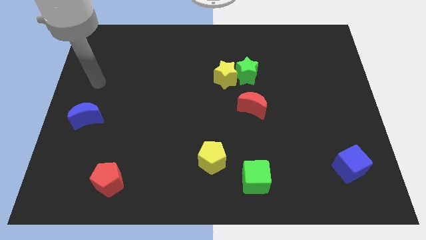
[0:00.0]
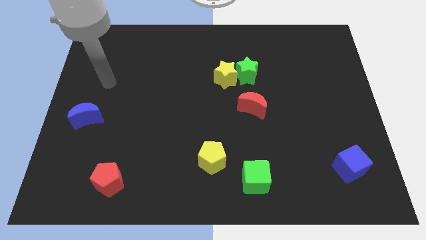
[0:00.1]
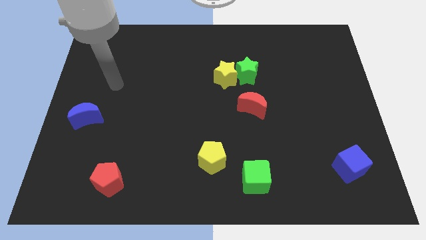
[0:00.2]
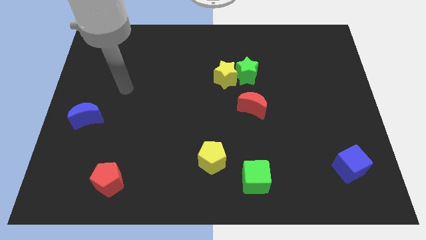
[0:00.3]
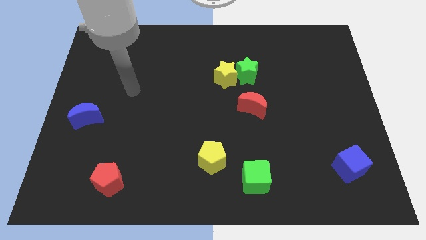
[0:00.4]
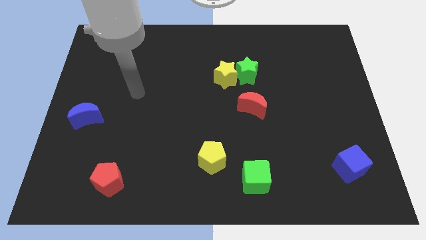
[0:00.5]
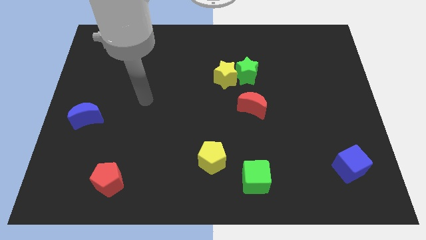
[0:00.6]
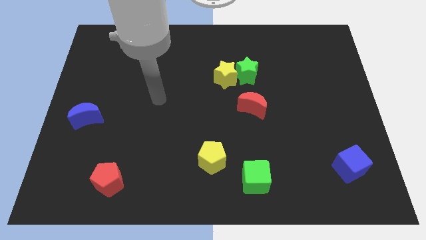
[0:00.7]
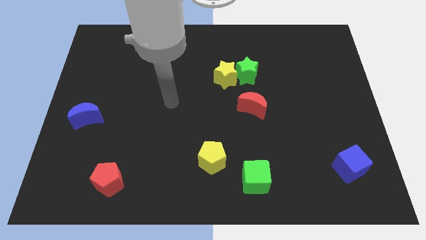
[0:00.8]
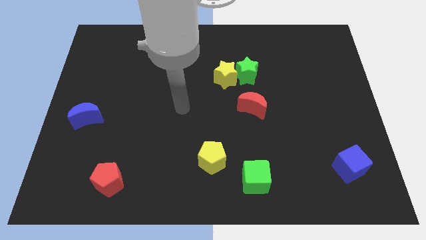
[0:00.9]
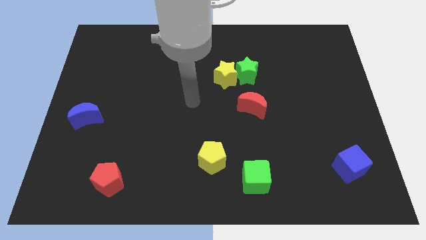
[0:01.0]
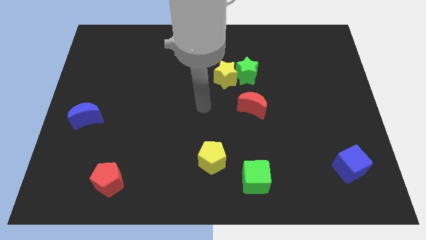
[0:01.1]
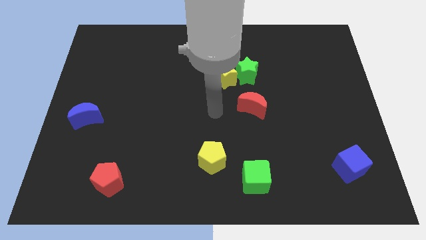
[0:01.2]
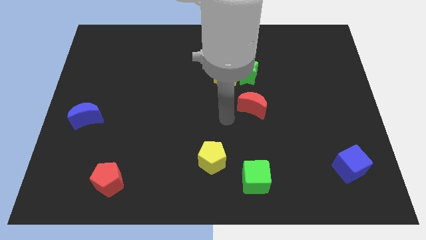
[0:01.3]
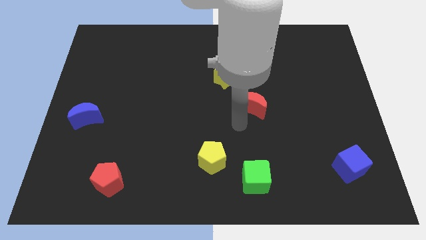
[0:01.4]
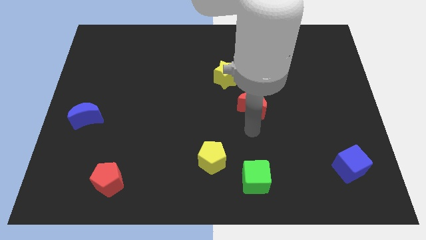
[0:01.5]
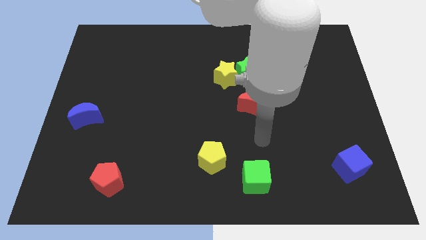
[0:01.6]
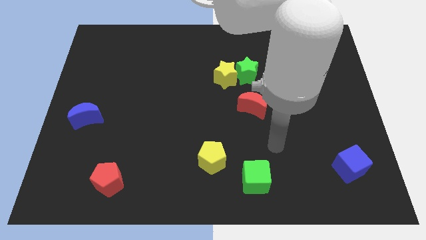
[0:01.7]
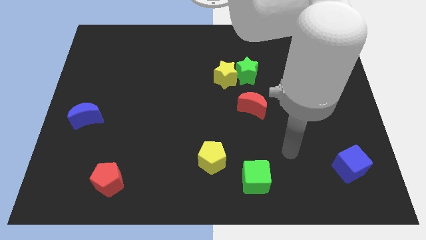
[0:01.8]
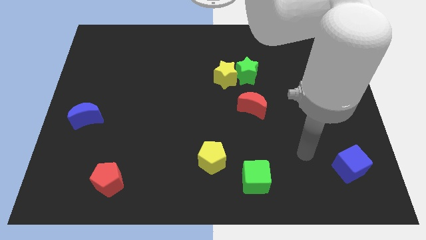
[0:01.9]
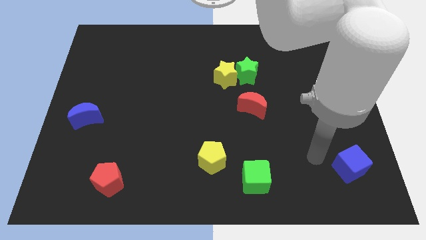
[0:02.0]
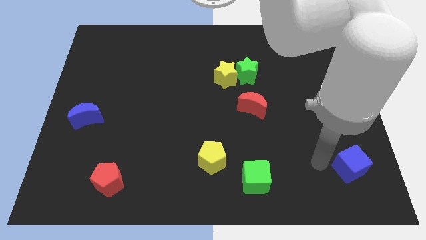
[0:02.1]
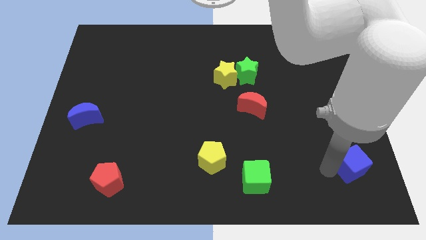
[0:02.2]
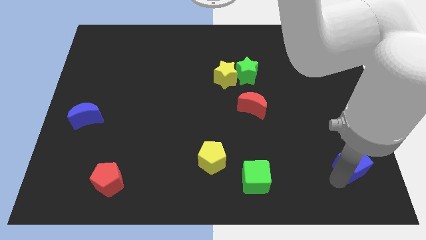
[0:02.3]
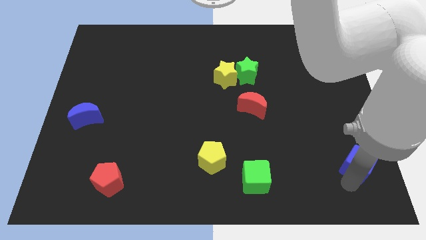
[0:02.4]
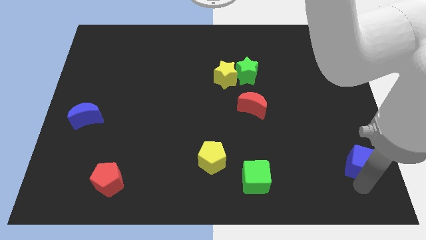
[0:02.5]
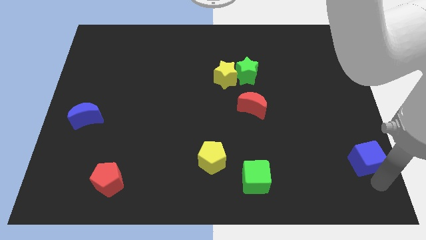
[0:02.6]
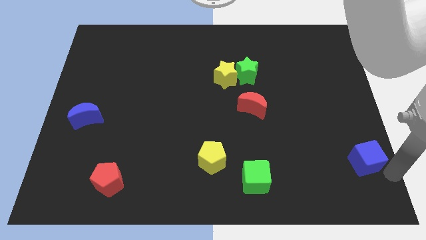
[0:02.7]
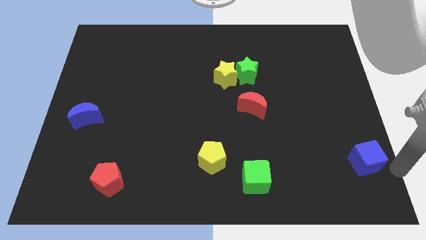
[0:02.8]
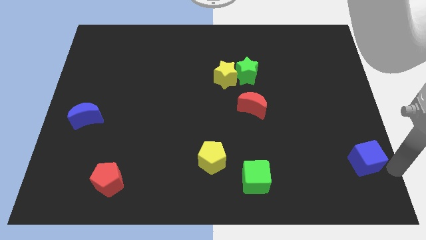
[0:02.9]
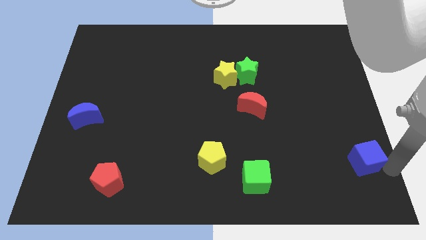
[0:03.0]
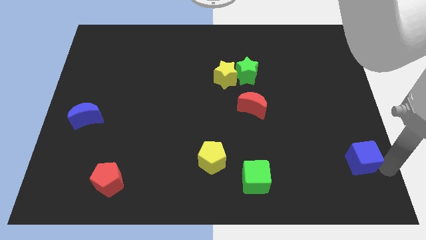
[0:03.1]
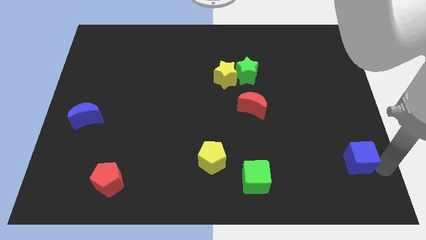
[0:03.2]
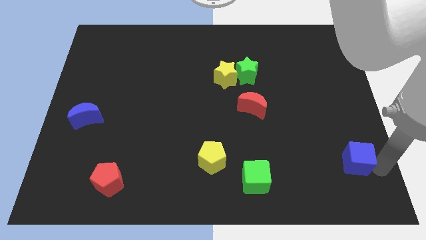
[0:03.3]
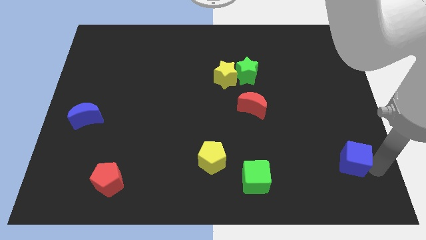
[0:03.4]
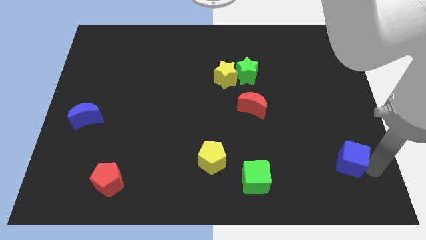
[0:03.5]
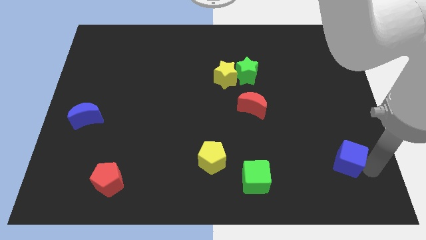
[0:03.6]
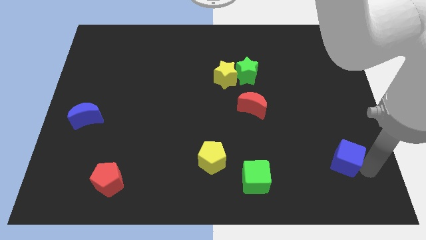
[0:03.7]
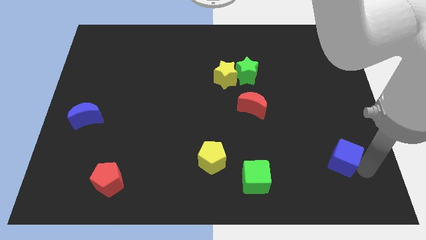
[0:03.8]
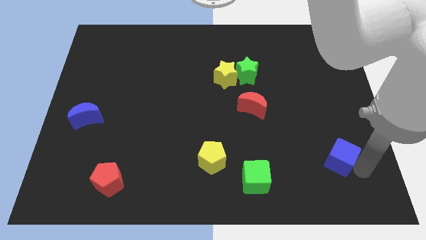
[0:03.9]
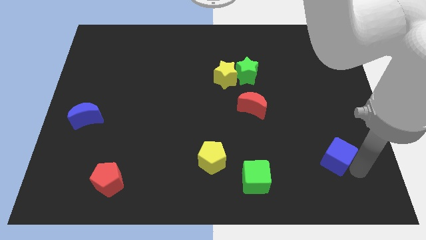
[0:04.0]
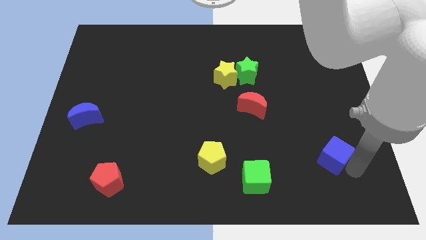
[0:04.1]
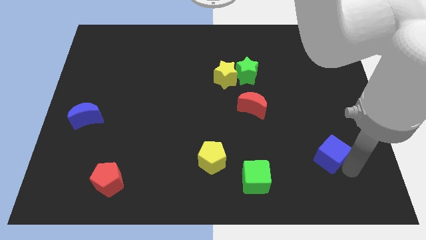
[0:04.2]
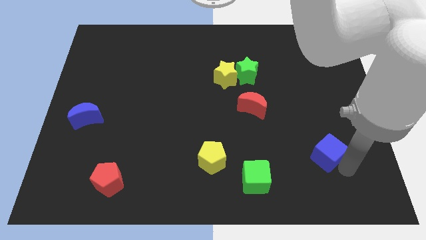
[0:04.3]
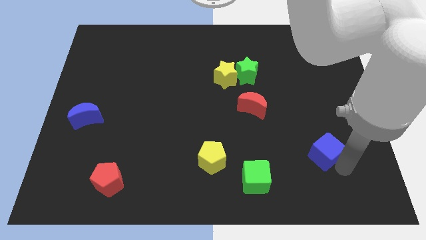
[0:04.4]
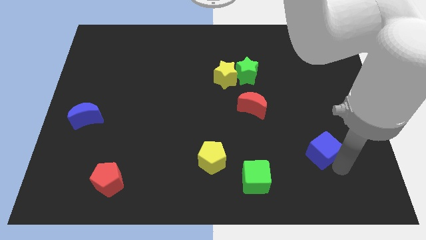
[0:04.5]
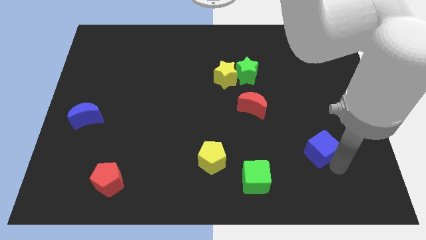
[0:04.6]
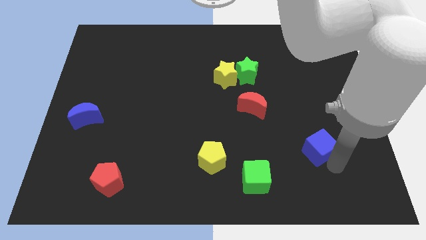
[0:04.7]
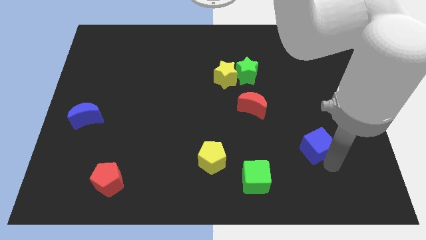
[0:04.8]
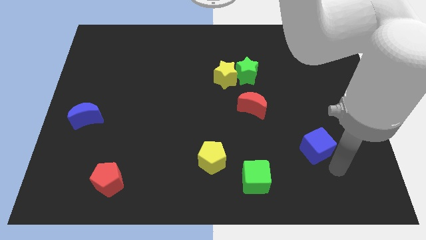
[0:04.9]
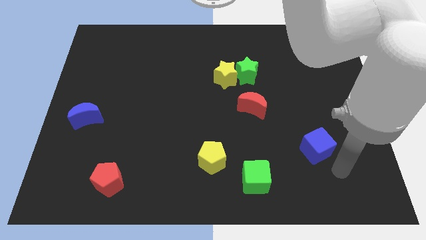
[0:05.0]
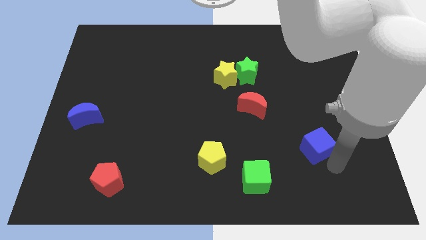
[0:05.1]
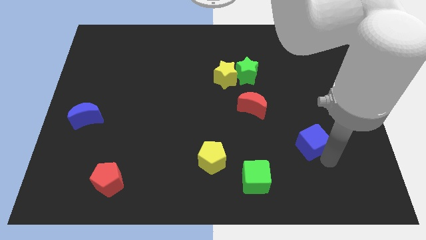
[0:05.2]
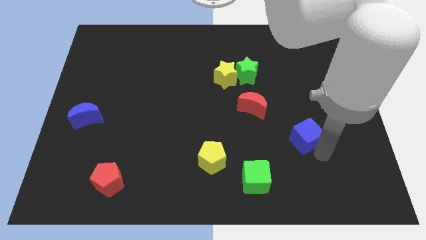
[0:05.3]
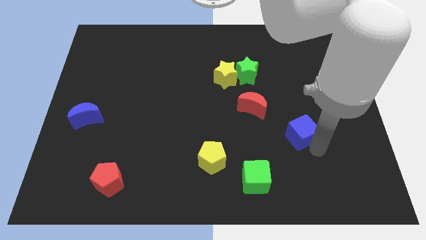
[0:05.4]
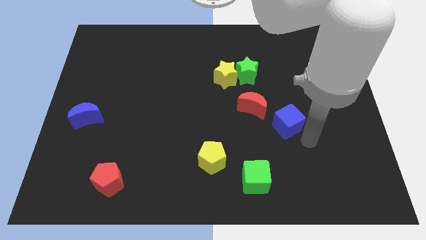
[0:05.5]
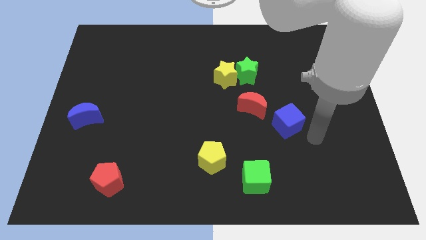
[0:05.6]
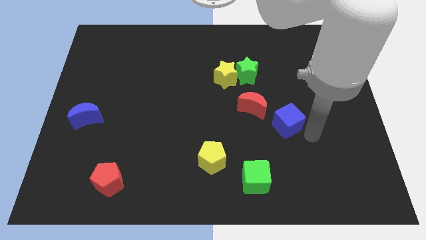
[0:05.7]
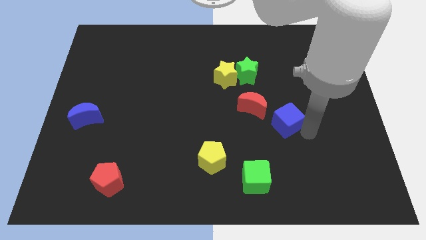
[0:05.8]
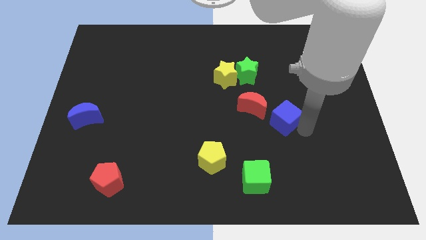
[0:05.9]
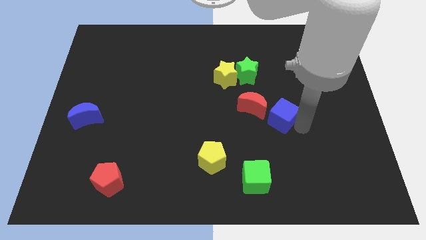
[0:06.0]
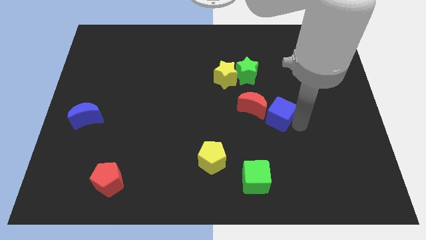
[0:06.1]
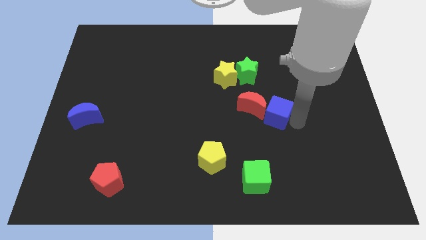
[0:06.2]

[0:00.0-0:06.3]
move the blue cube to the red moon
